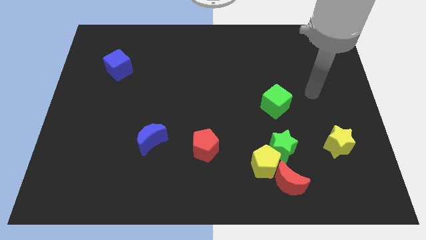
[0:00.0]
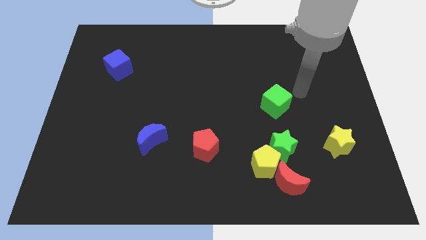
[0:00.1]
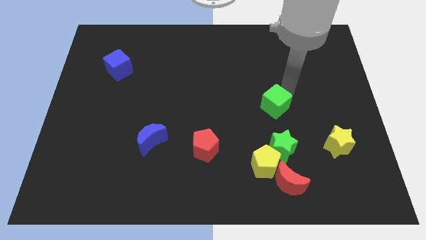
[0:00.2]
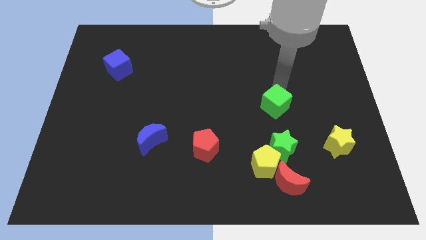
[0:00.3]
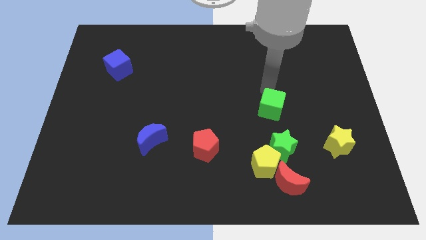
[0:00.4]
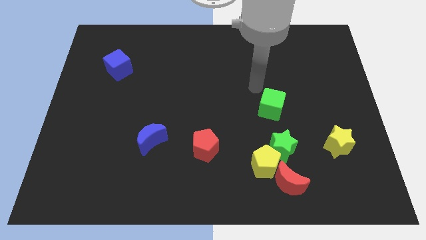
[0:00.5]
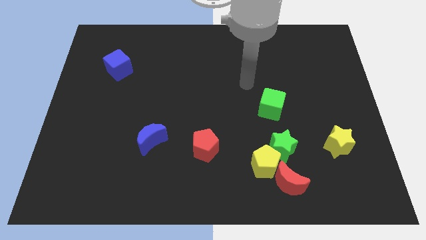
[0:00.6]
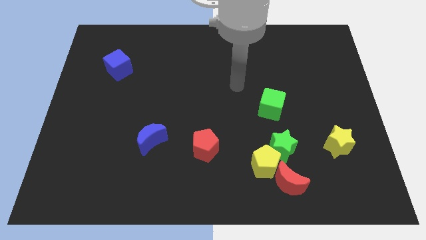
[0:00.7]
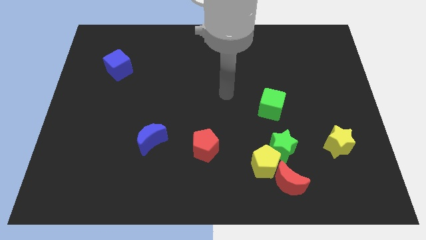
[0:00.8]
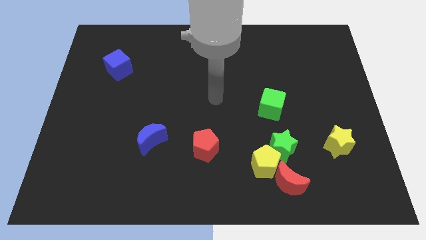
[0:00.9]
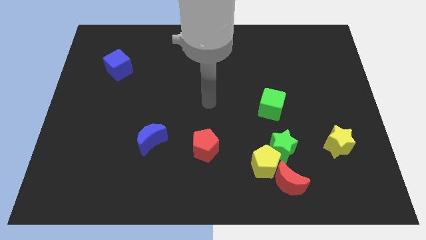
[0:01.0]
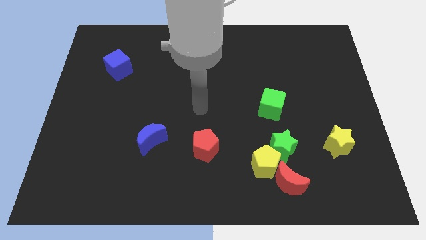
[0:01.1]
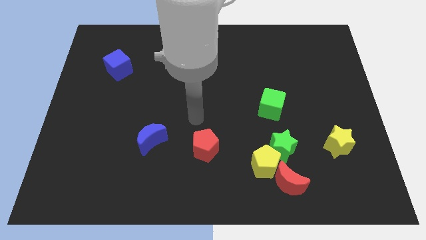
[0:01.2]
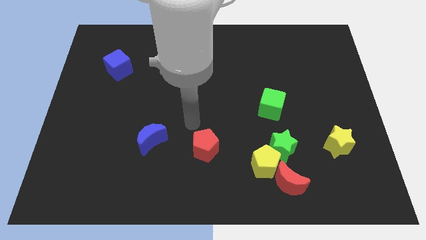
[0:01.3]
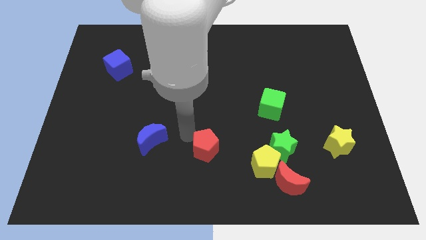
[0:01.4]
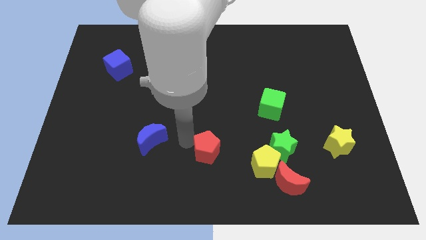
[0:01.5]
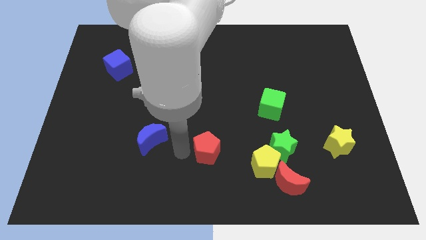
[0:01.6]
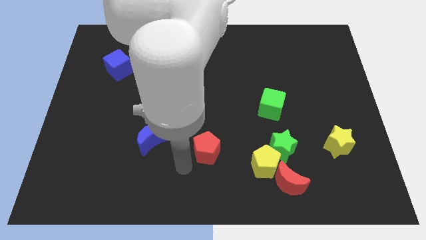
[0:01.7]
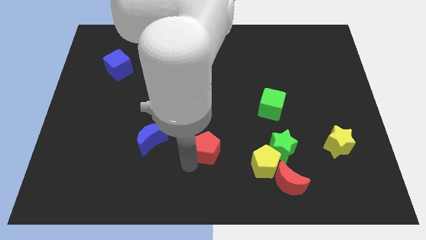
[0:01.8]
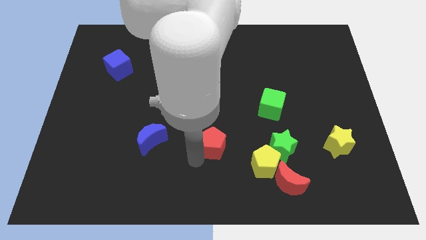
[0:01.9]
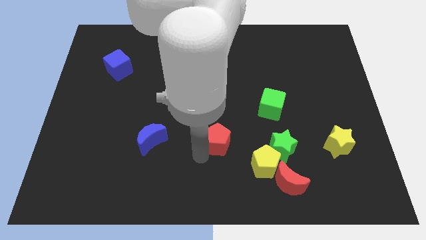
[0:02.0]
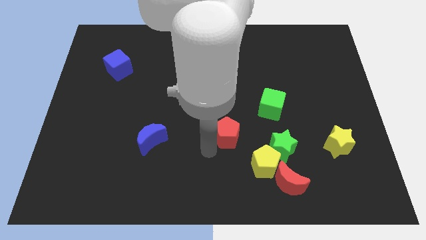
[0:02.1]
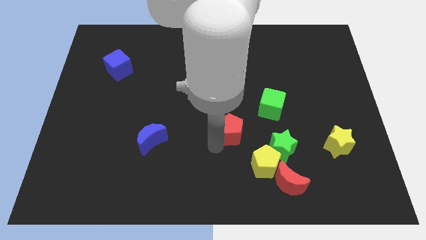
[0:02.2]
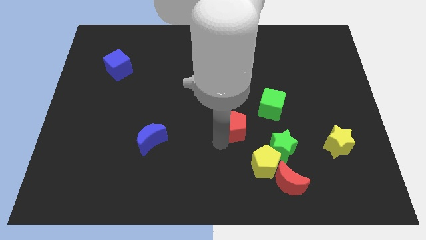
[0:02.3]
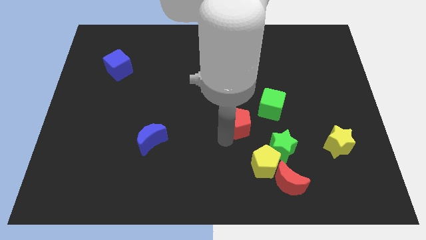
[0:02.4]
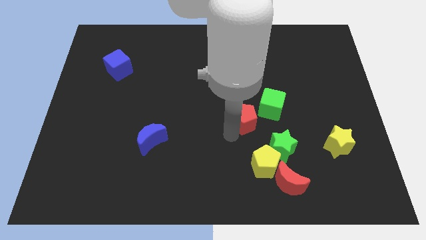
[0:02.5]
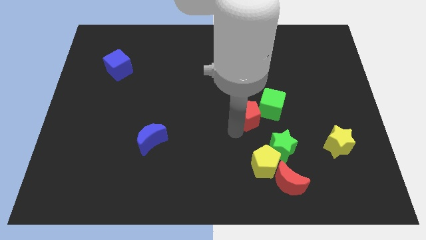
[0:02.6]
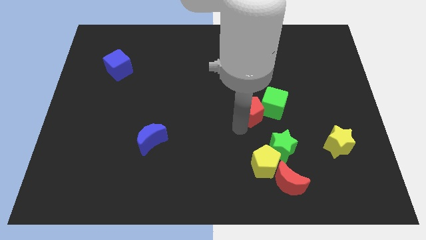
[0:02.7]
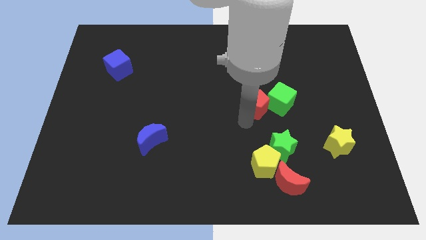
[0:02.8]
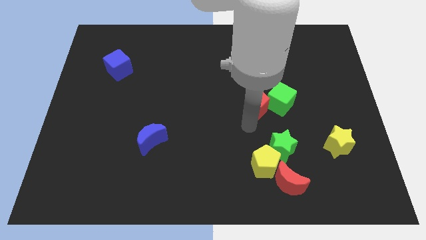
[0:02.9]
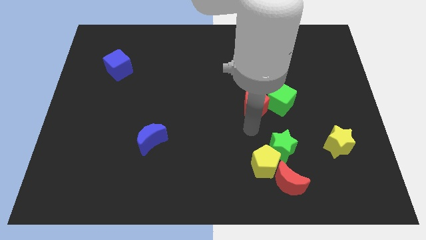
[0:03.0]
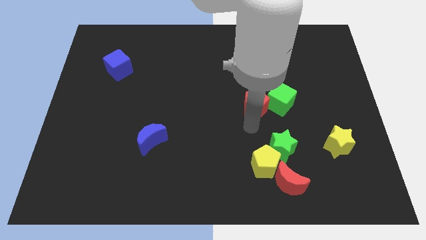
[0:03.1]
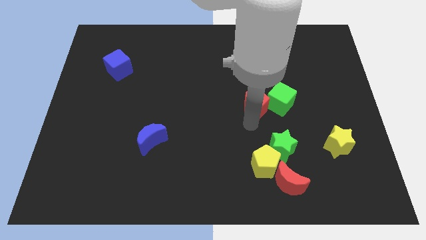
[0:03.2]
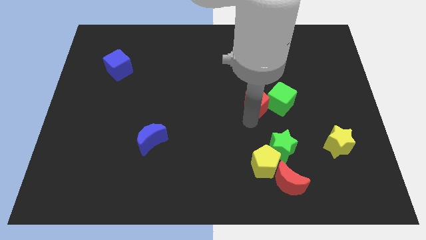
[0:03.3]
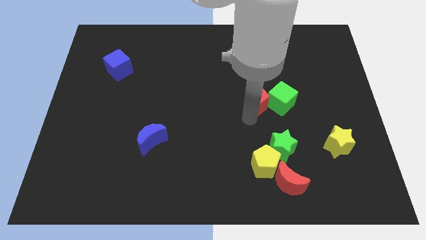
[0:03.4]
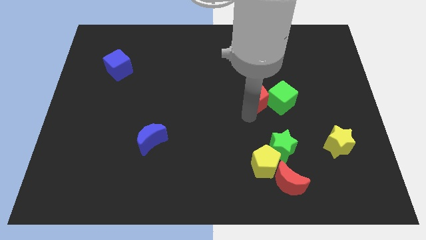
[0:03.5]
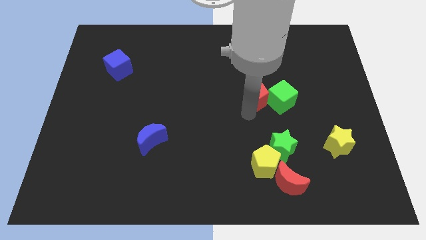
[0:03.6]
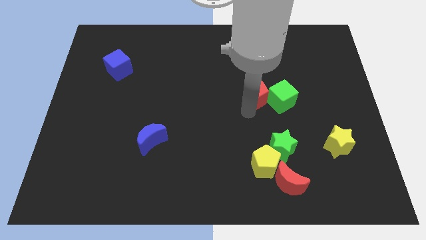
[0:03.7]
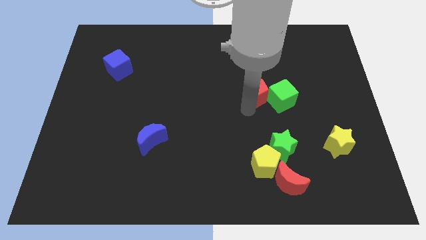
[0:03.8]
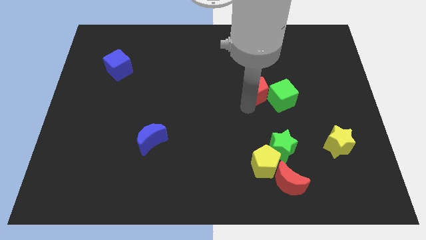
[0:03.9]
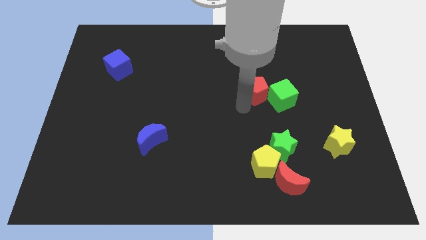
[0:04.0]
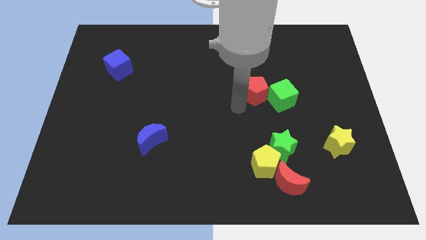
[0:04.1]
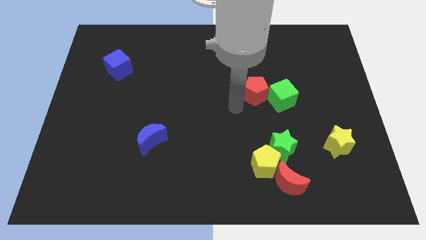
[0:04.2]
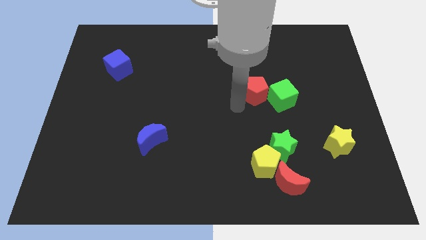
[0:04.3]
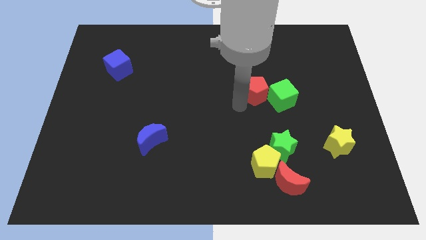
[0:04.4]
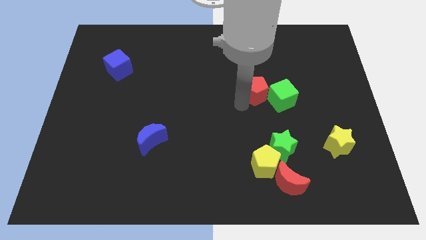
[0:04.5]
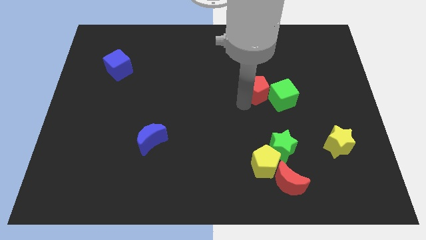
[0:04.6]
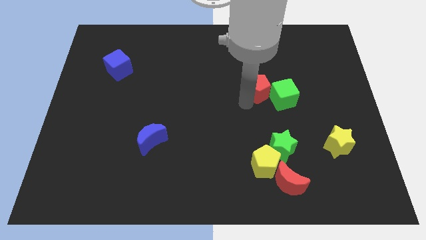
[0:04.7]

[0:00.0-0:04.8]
move the red pentagon up and to the right

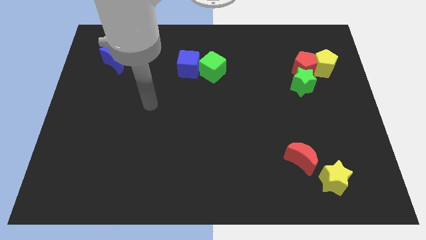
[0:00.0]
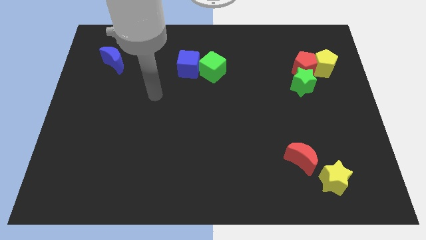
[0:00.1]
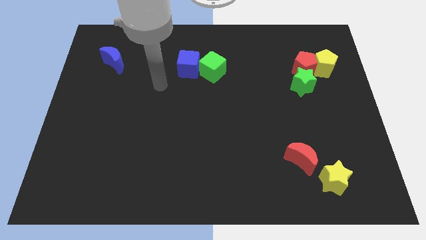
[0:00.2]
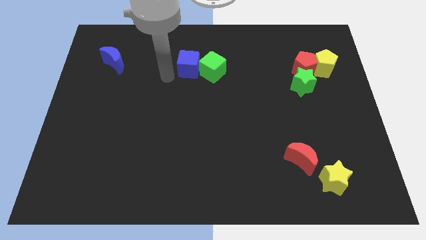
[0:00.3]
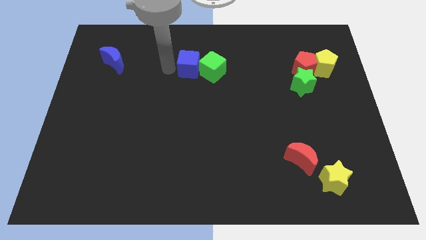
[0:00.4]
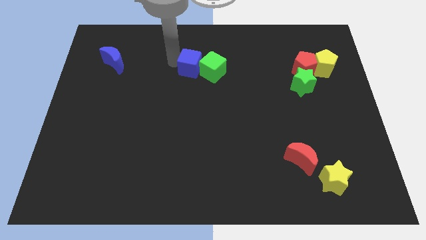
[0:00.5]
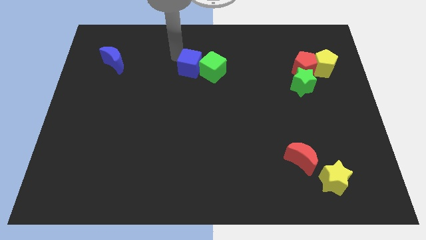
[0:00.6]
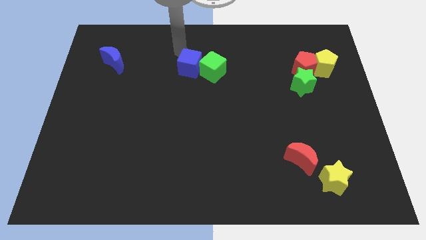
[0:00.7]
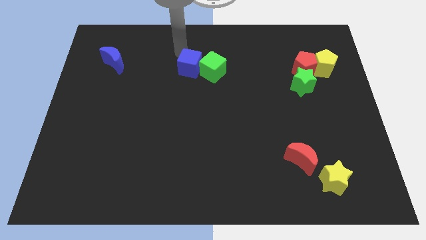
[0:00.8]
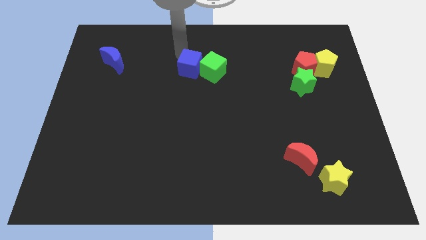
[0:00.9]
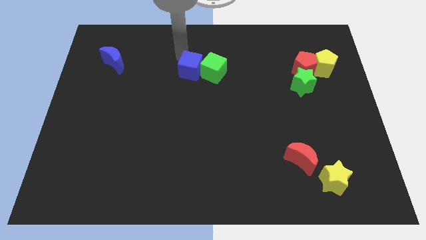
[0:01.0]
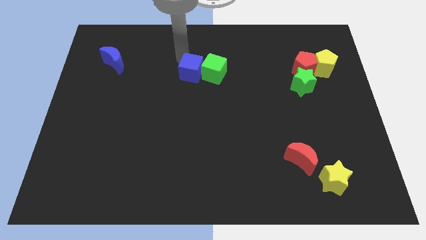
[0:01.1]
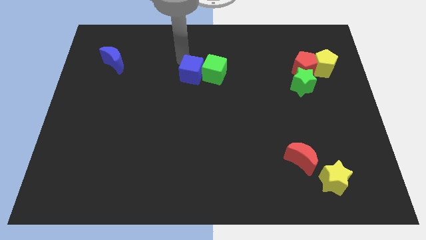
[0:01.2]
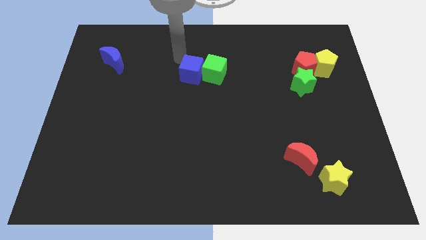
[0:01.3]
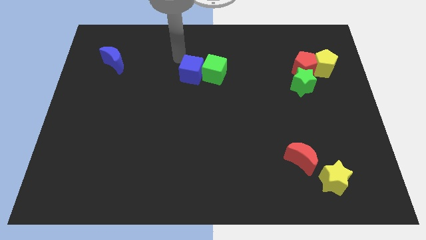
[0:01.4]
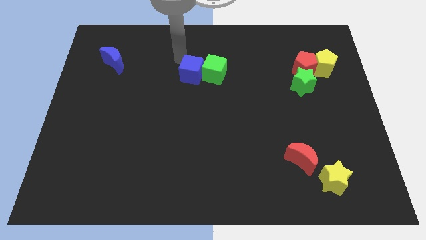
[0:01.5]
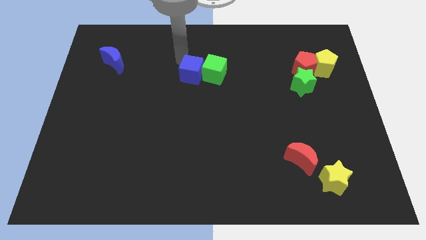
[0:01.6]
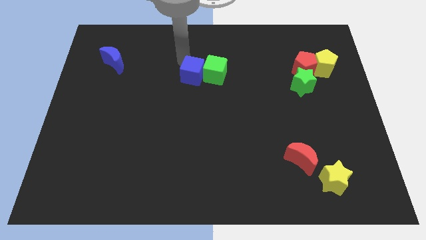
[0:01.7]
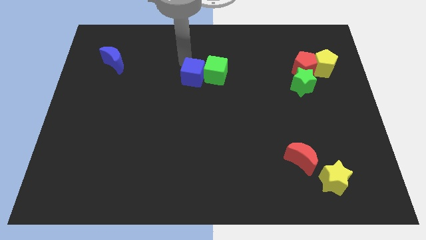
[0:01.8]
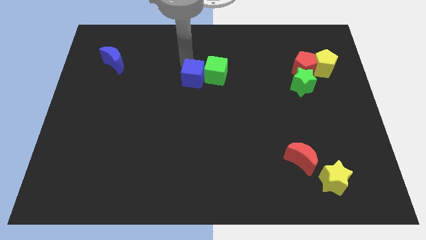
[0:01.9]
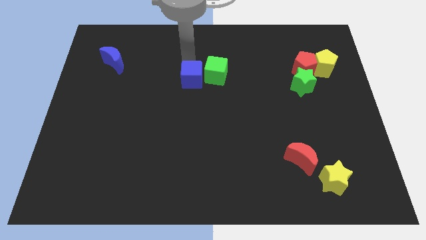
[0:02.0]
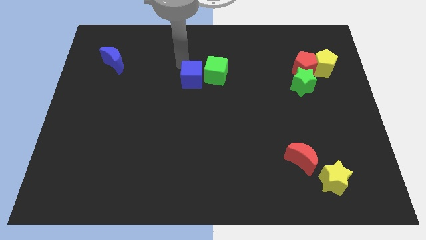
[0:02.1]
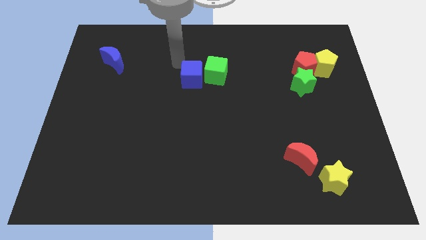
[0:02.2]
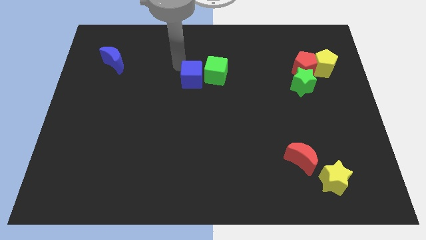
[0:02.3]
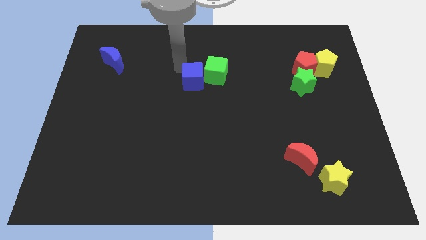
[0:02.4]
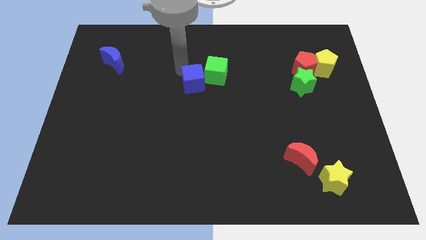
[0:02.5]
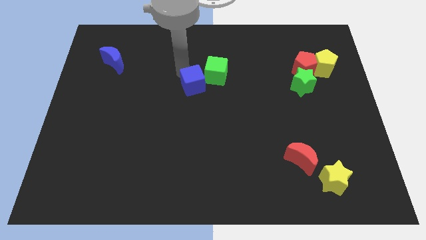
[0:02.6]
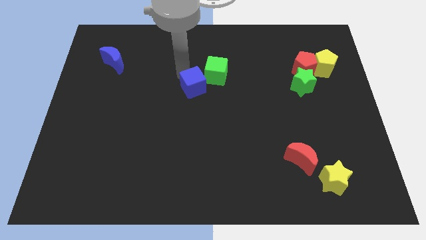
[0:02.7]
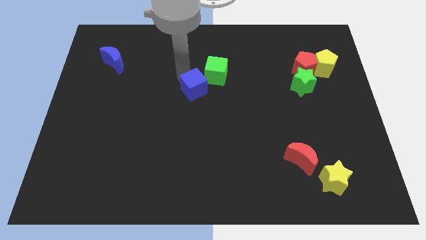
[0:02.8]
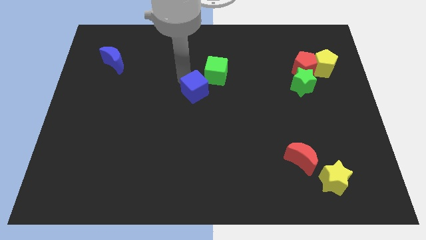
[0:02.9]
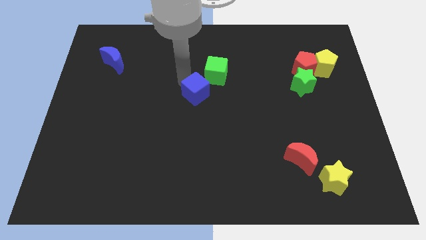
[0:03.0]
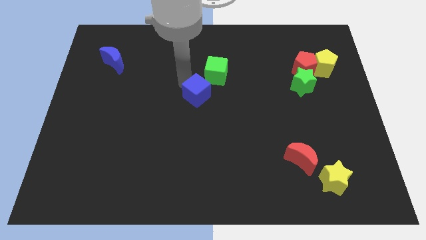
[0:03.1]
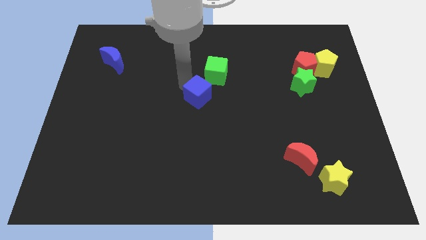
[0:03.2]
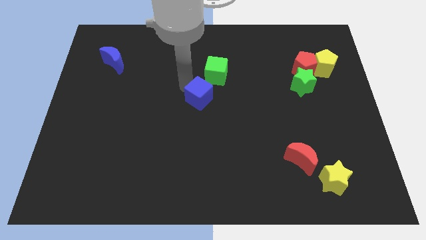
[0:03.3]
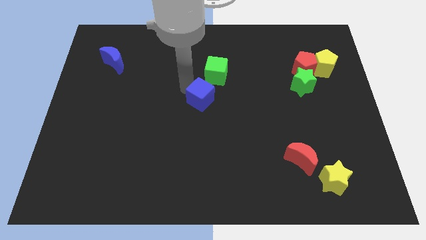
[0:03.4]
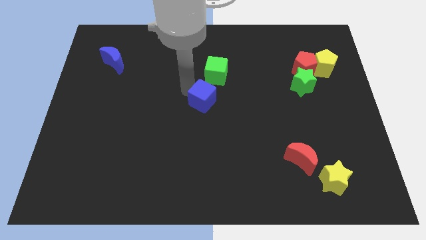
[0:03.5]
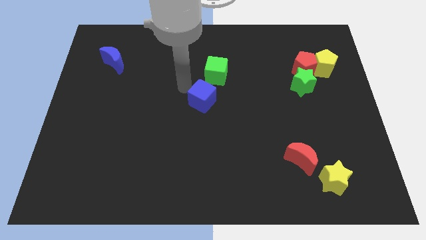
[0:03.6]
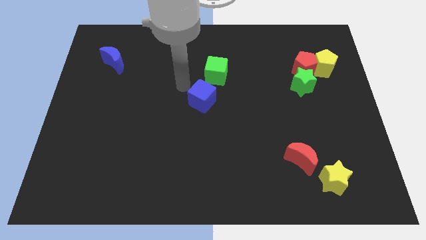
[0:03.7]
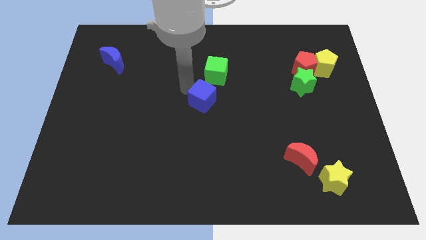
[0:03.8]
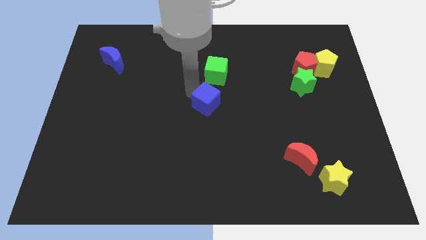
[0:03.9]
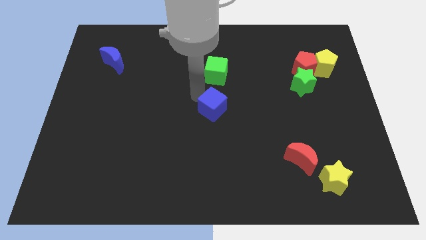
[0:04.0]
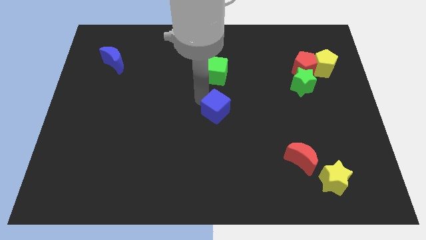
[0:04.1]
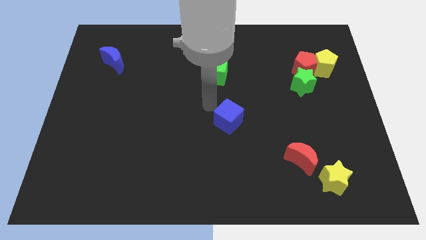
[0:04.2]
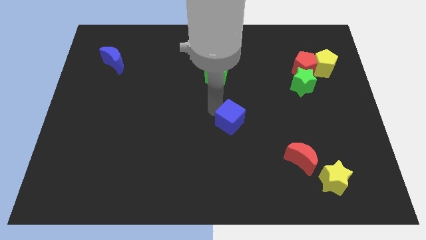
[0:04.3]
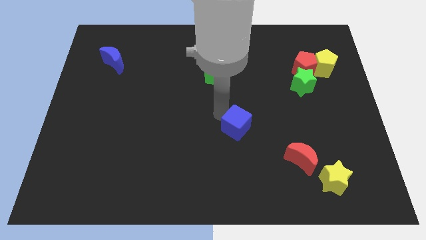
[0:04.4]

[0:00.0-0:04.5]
move the blue cube downwards and then right
